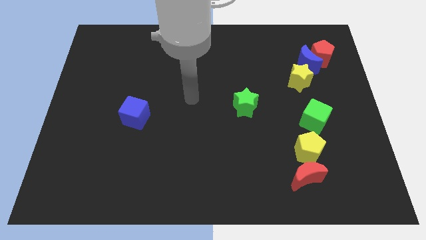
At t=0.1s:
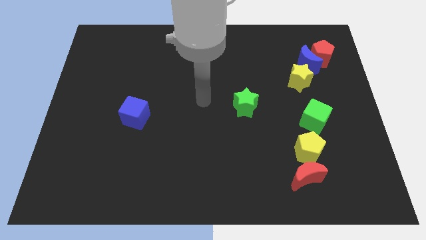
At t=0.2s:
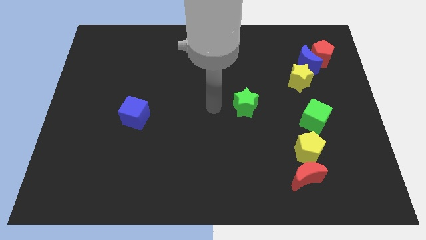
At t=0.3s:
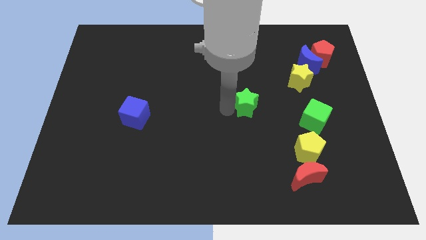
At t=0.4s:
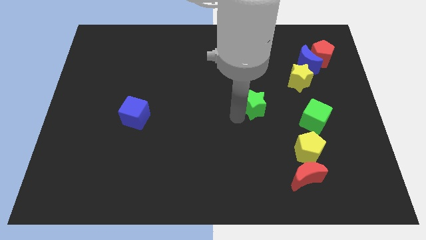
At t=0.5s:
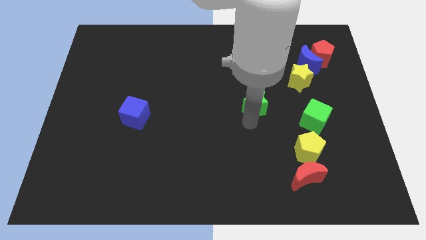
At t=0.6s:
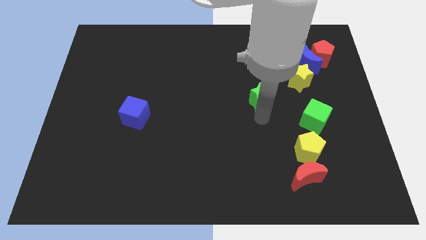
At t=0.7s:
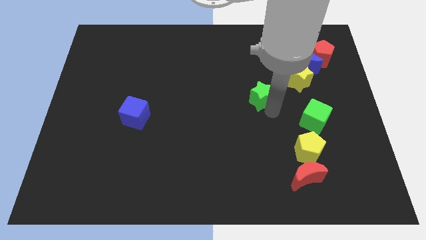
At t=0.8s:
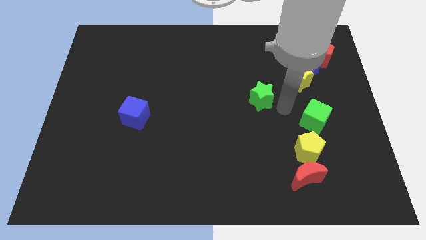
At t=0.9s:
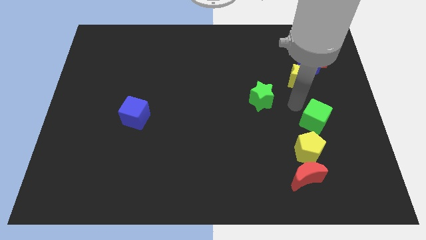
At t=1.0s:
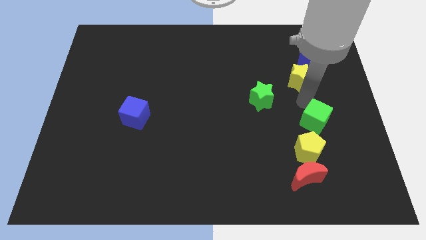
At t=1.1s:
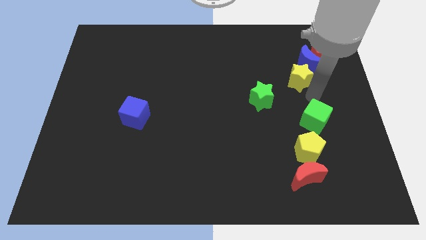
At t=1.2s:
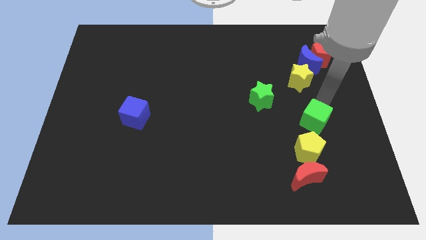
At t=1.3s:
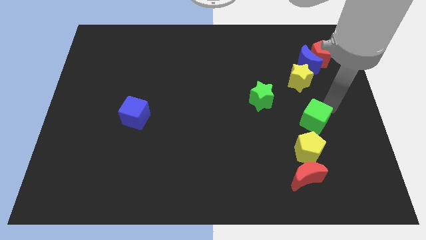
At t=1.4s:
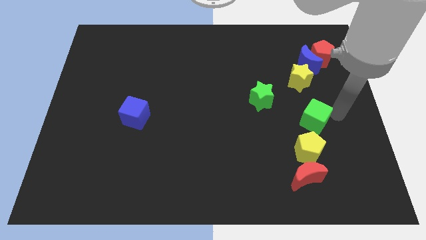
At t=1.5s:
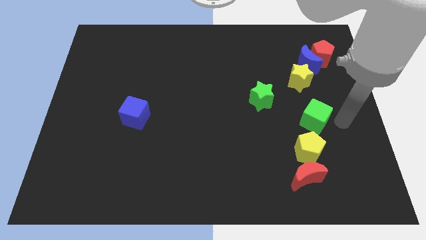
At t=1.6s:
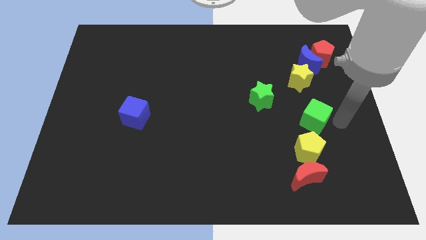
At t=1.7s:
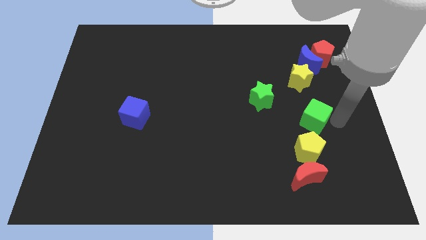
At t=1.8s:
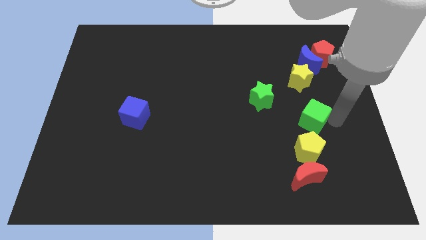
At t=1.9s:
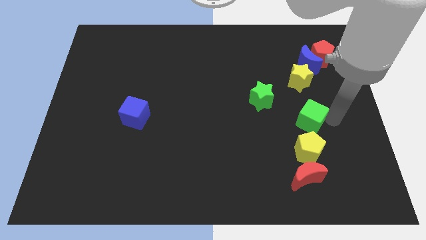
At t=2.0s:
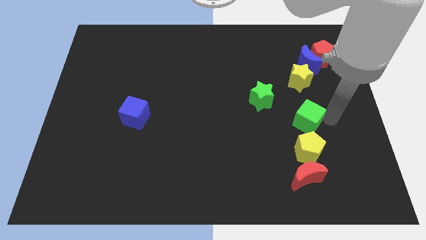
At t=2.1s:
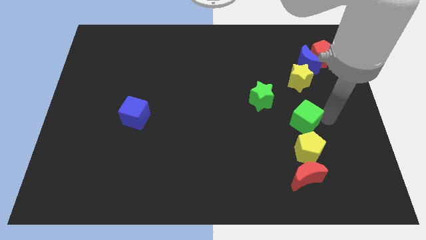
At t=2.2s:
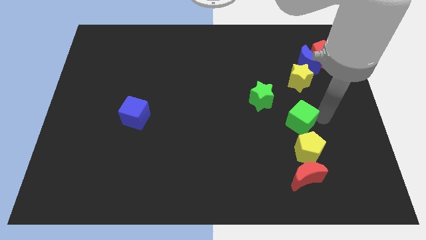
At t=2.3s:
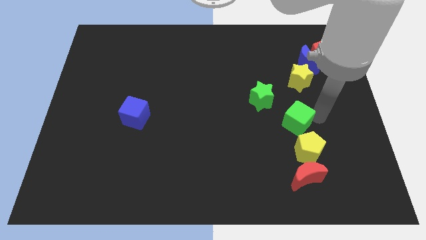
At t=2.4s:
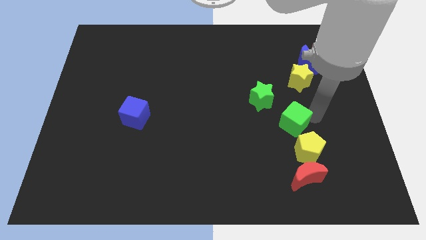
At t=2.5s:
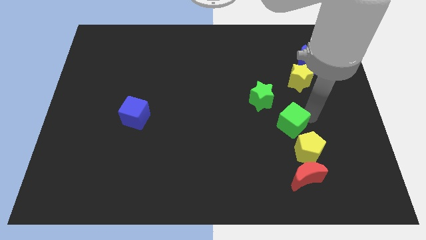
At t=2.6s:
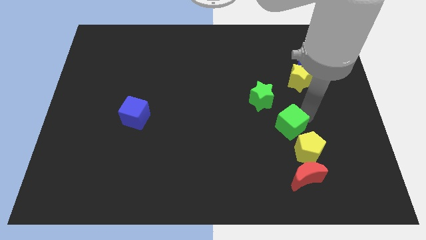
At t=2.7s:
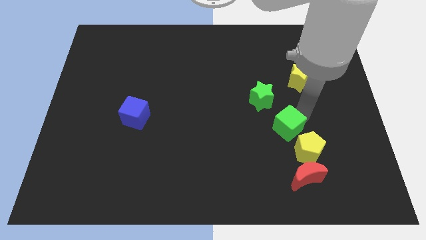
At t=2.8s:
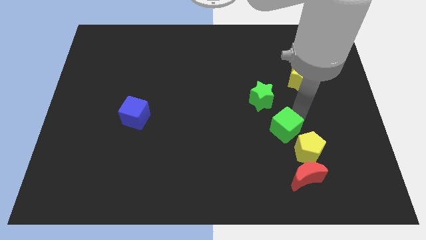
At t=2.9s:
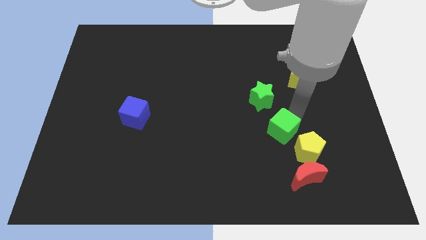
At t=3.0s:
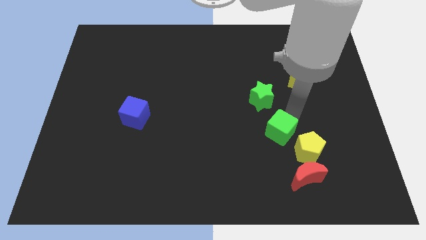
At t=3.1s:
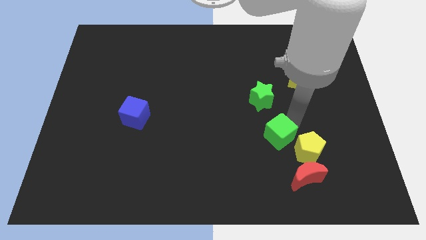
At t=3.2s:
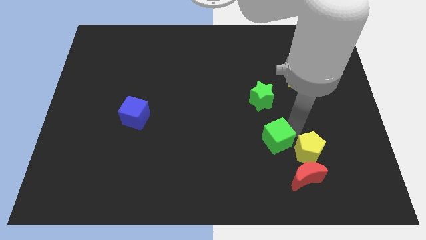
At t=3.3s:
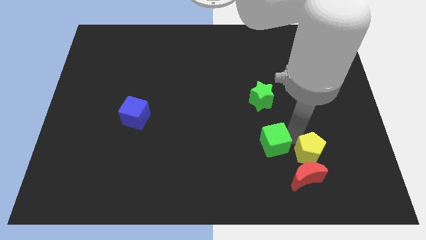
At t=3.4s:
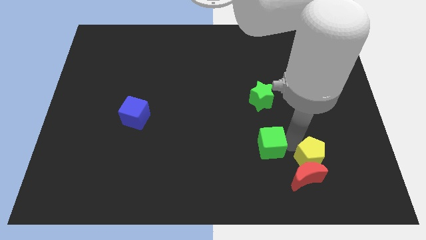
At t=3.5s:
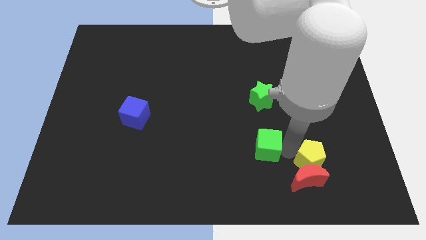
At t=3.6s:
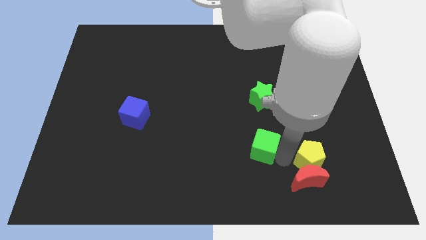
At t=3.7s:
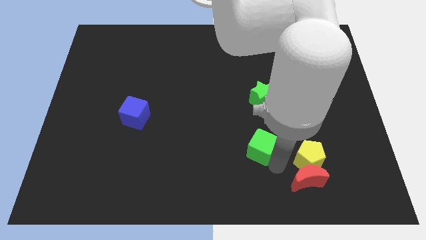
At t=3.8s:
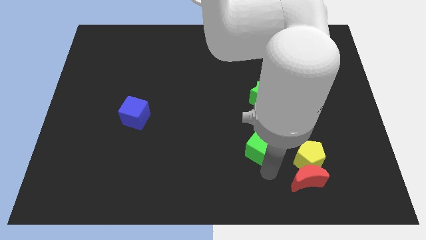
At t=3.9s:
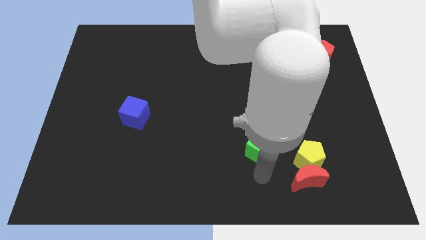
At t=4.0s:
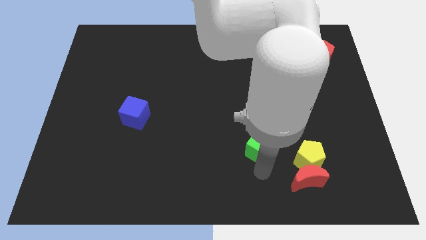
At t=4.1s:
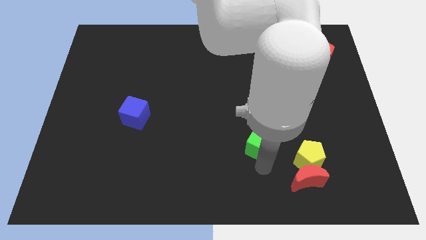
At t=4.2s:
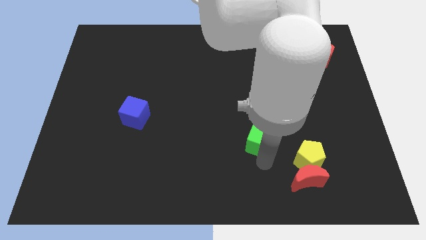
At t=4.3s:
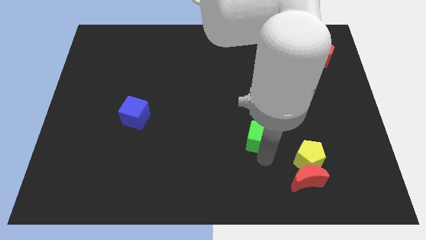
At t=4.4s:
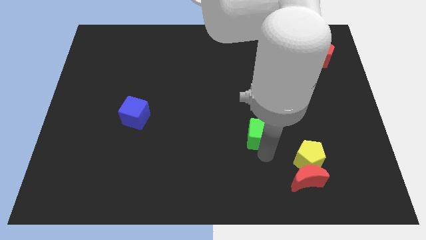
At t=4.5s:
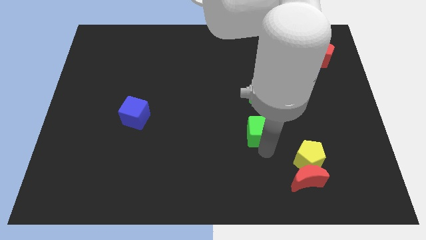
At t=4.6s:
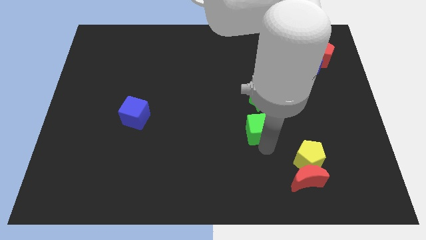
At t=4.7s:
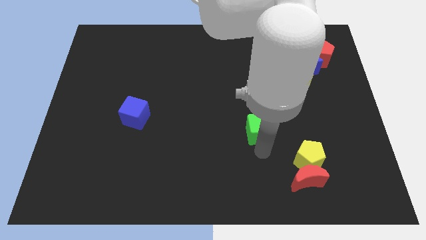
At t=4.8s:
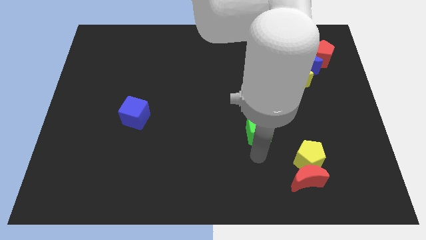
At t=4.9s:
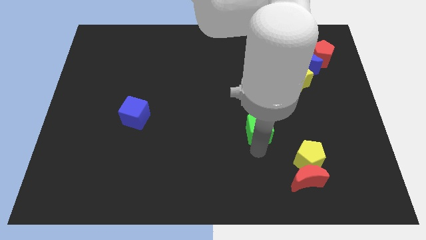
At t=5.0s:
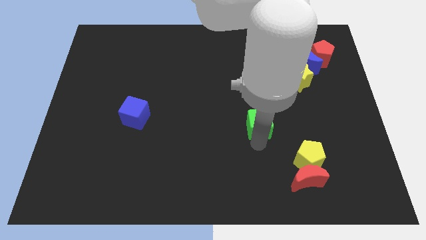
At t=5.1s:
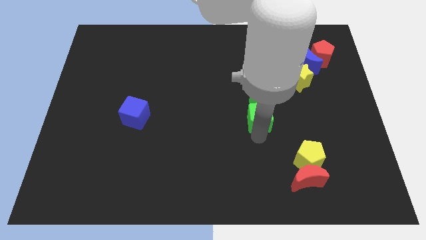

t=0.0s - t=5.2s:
slide the green cube towards the green star

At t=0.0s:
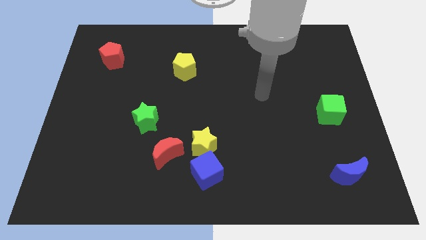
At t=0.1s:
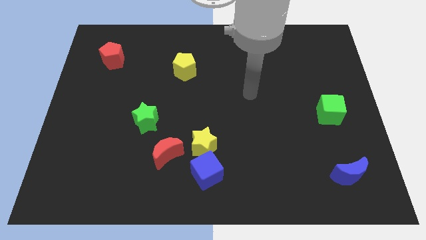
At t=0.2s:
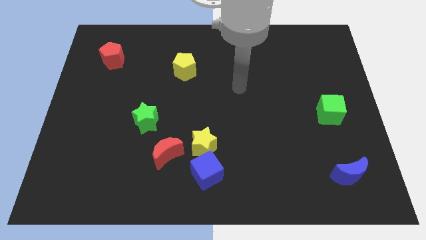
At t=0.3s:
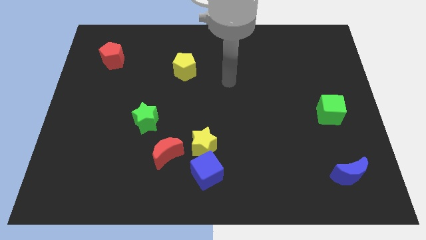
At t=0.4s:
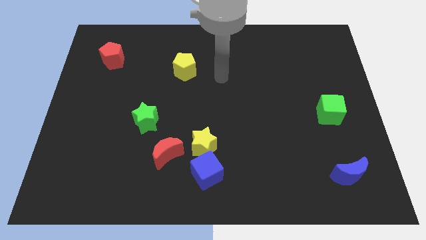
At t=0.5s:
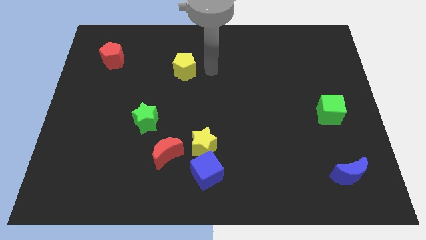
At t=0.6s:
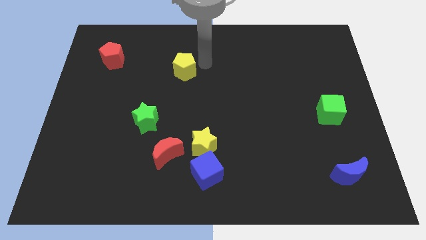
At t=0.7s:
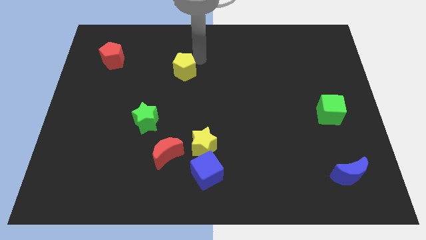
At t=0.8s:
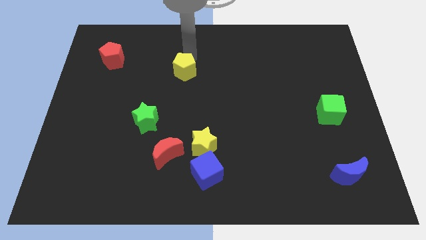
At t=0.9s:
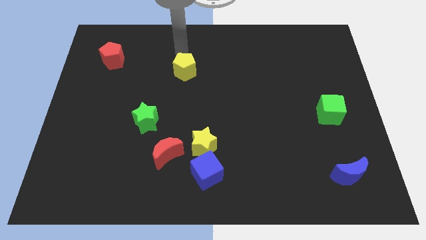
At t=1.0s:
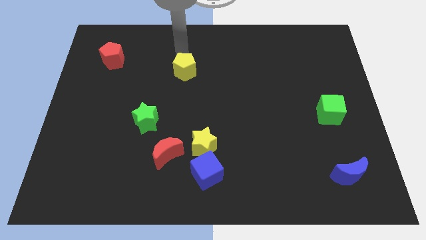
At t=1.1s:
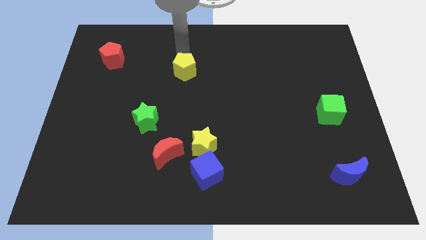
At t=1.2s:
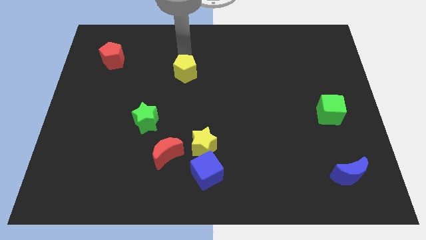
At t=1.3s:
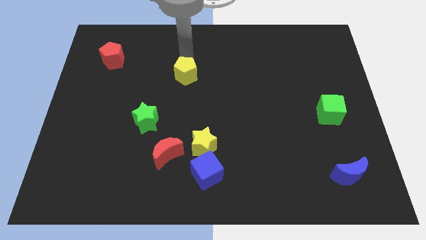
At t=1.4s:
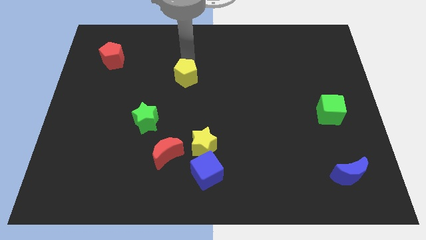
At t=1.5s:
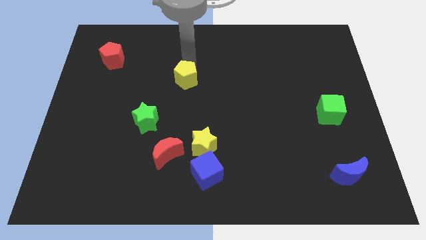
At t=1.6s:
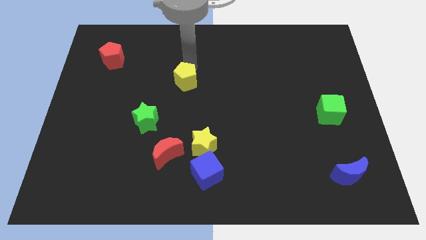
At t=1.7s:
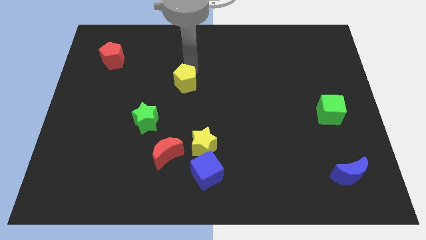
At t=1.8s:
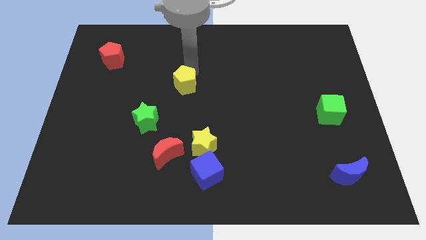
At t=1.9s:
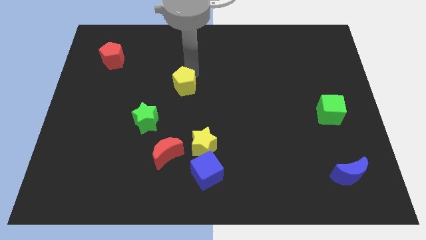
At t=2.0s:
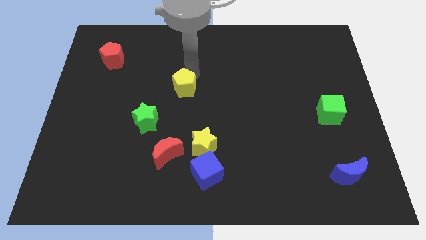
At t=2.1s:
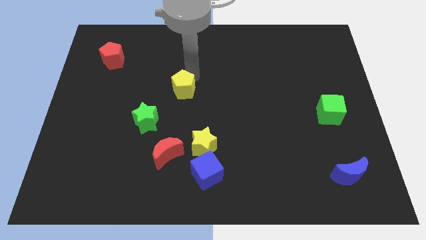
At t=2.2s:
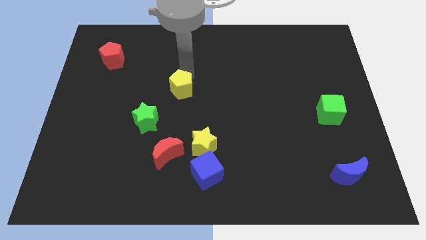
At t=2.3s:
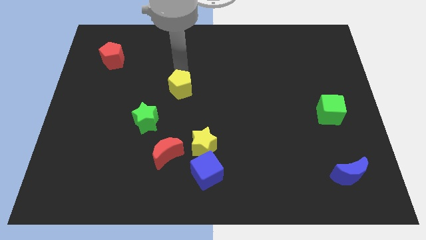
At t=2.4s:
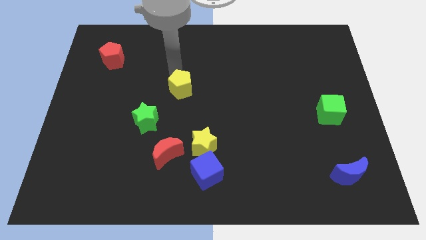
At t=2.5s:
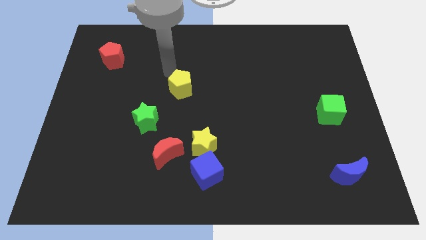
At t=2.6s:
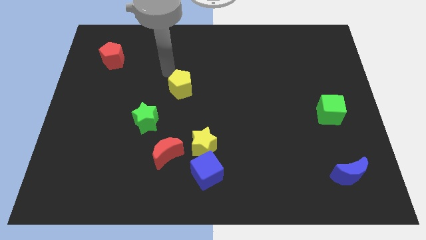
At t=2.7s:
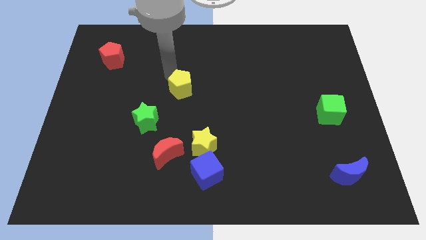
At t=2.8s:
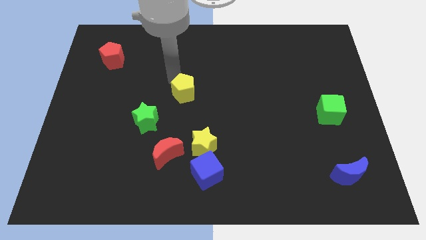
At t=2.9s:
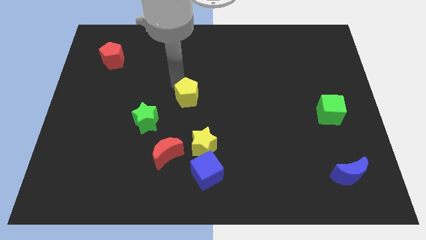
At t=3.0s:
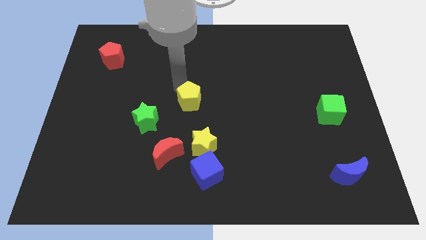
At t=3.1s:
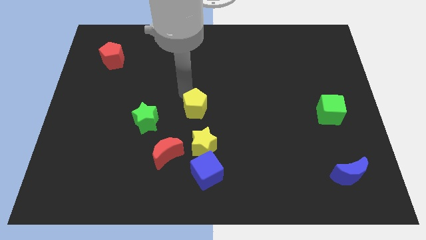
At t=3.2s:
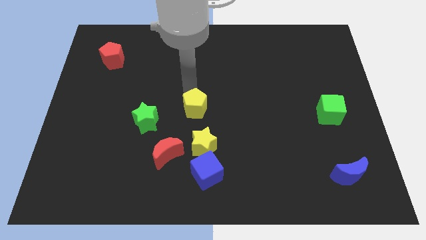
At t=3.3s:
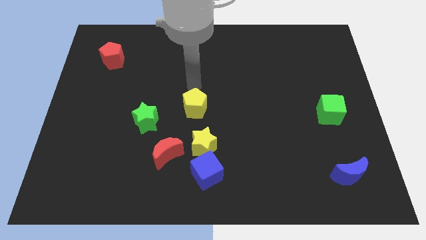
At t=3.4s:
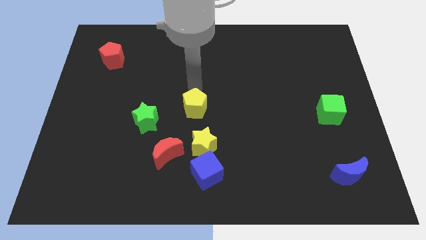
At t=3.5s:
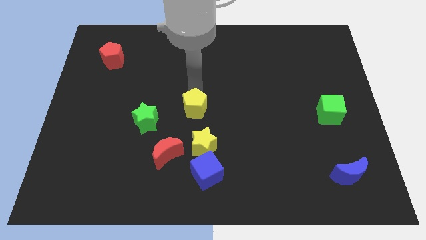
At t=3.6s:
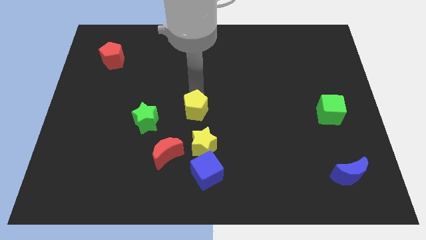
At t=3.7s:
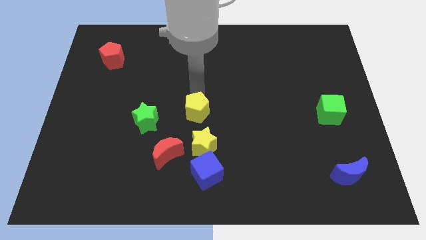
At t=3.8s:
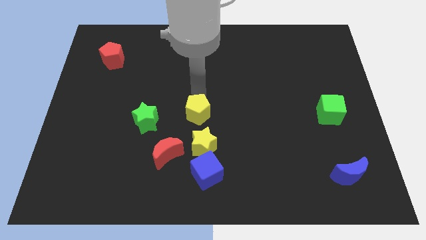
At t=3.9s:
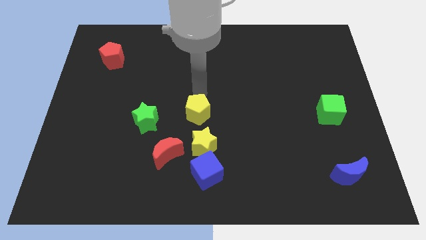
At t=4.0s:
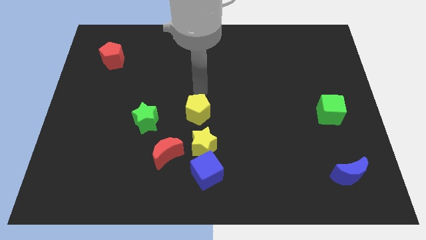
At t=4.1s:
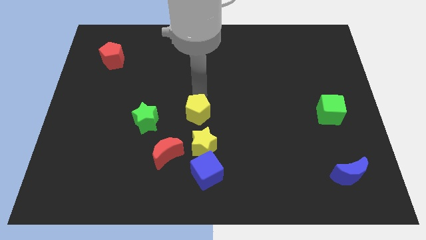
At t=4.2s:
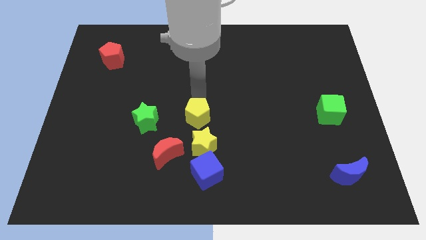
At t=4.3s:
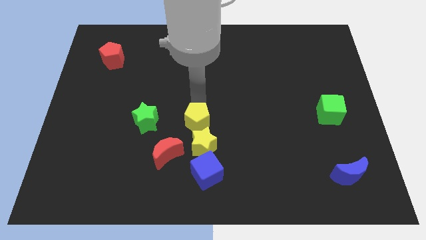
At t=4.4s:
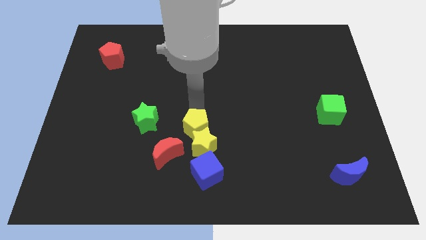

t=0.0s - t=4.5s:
slide the yellow pentagon next to the yellow star
